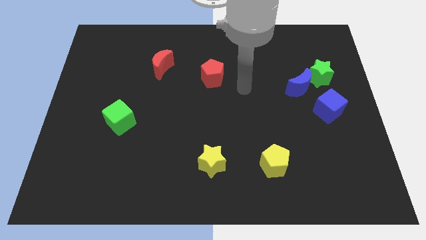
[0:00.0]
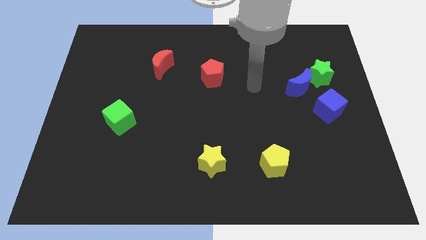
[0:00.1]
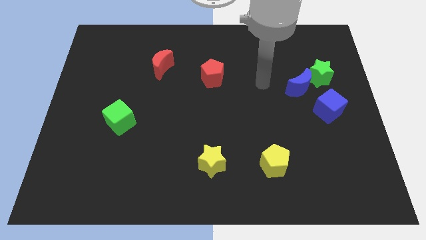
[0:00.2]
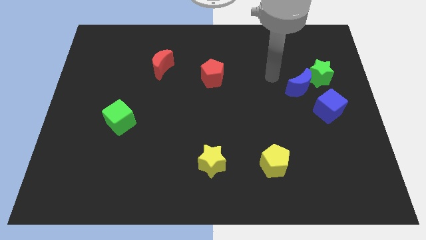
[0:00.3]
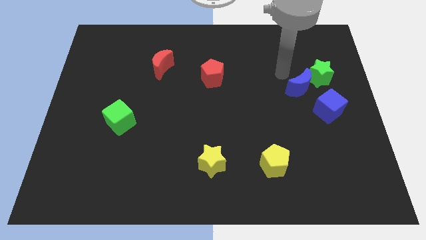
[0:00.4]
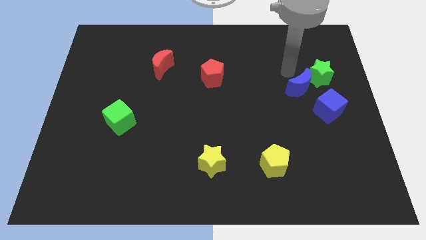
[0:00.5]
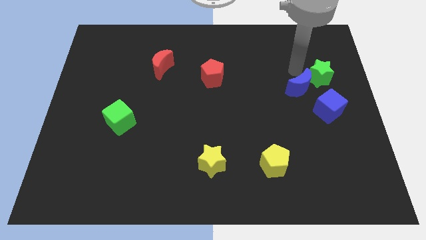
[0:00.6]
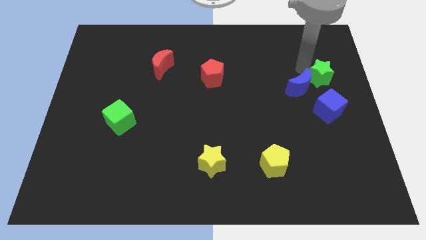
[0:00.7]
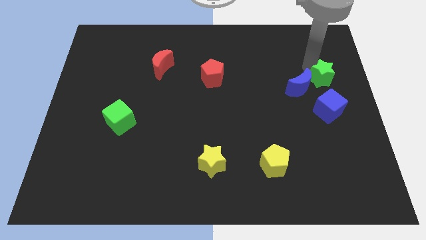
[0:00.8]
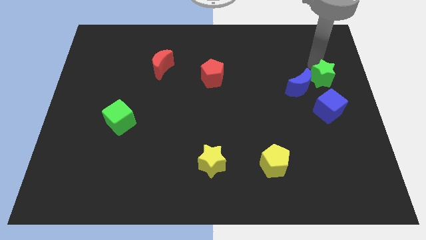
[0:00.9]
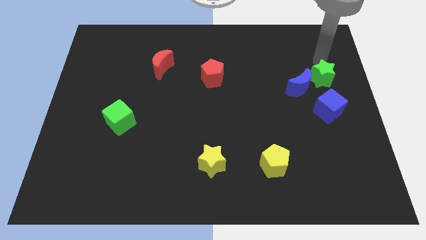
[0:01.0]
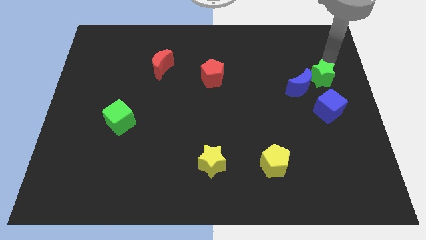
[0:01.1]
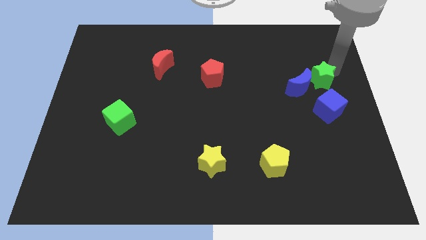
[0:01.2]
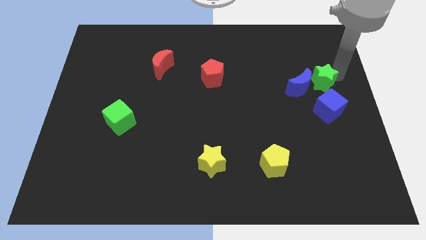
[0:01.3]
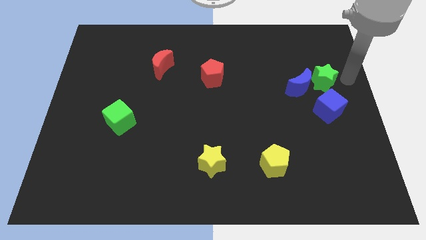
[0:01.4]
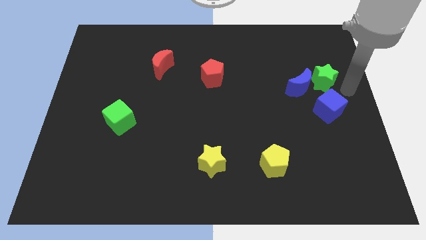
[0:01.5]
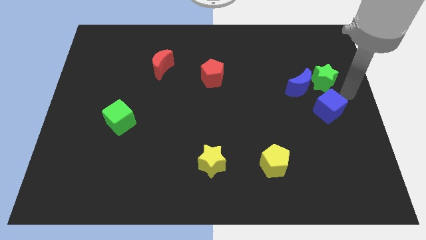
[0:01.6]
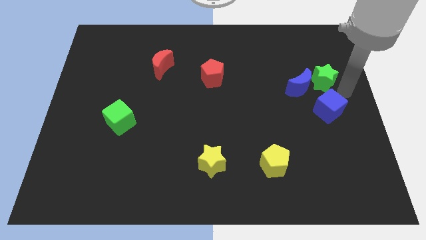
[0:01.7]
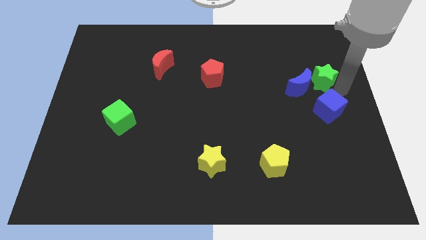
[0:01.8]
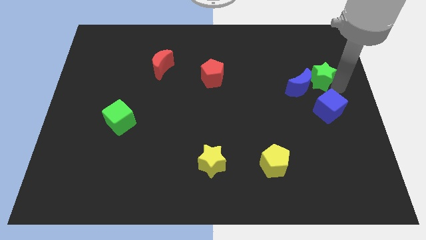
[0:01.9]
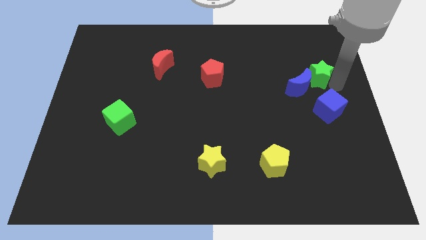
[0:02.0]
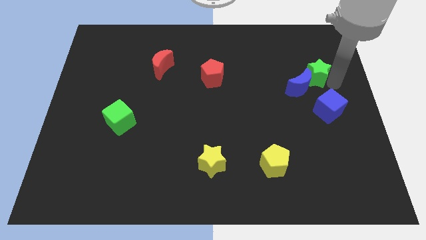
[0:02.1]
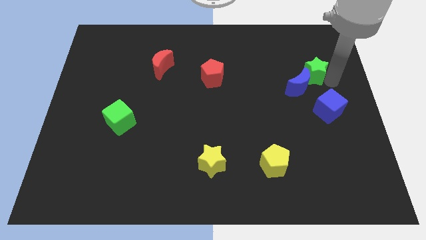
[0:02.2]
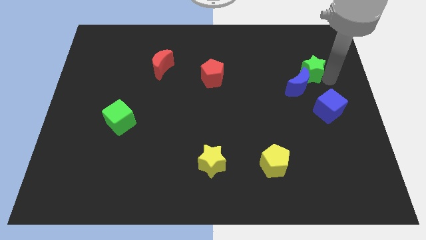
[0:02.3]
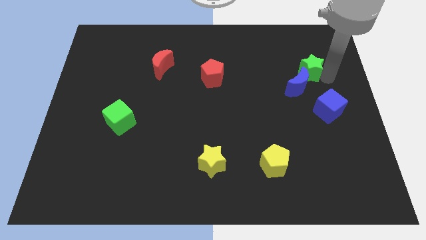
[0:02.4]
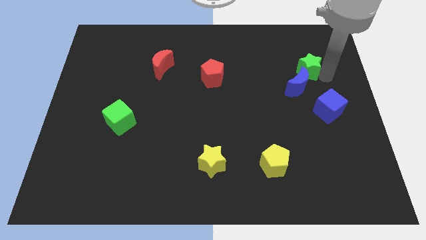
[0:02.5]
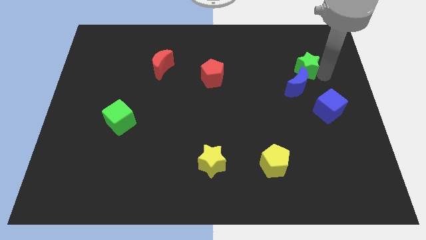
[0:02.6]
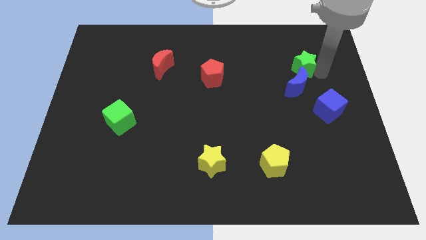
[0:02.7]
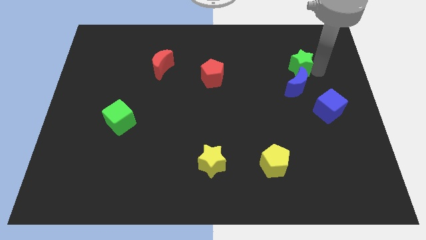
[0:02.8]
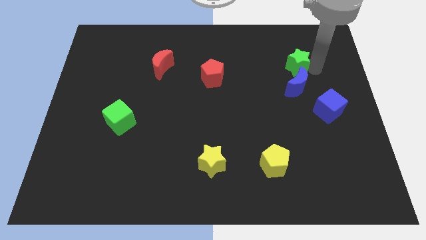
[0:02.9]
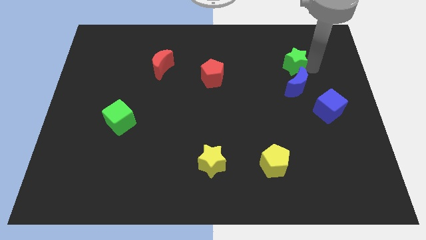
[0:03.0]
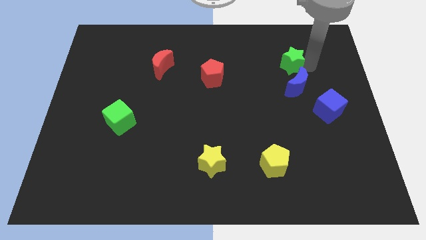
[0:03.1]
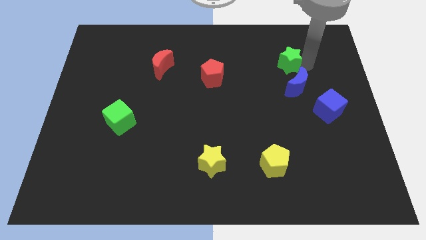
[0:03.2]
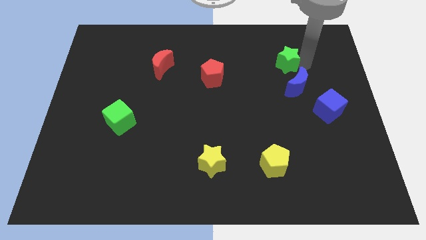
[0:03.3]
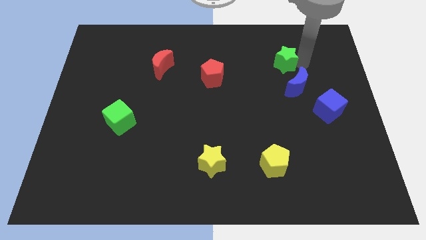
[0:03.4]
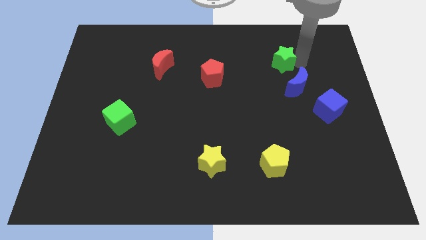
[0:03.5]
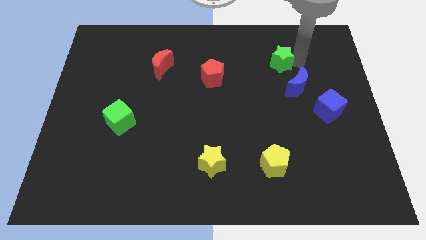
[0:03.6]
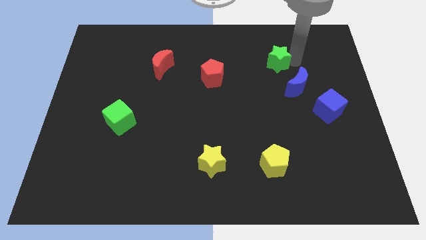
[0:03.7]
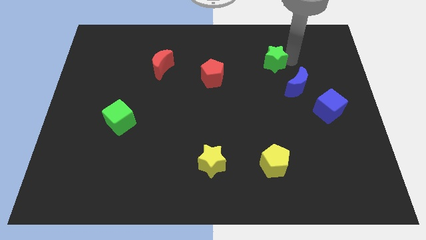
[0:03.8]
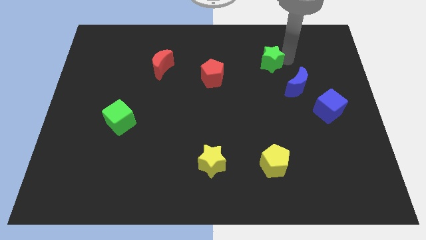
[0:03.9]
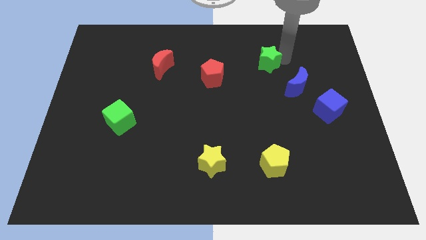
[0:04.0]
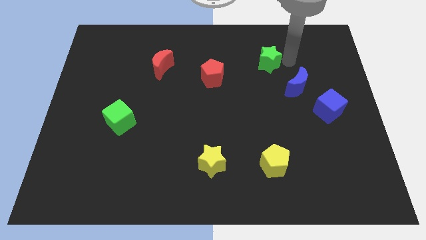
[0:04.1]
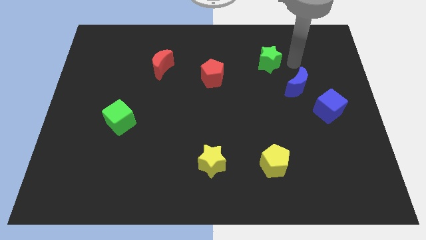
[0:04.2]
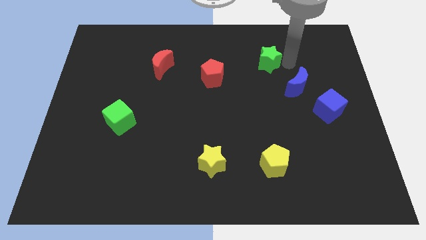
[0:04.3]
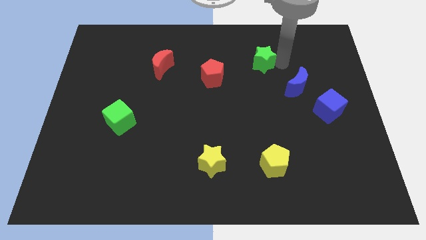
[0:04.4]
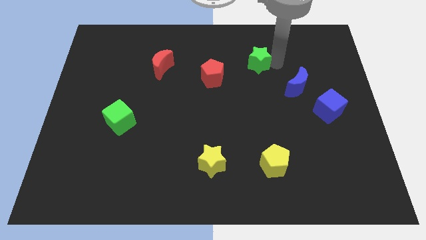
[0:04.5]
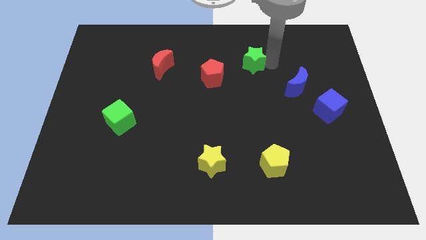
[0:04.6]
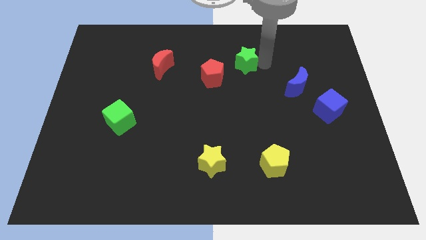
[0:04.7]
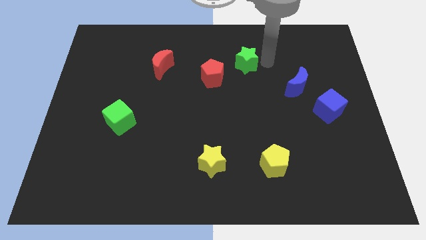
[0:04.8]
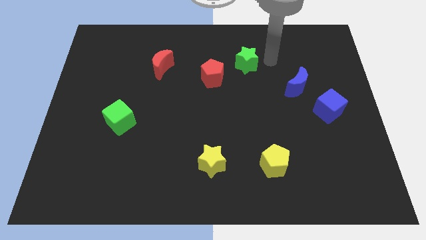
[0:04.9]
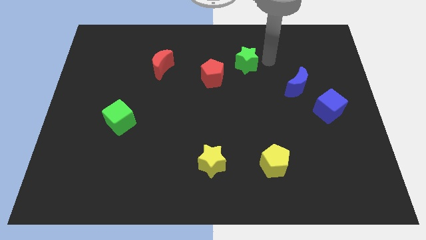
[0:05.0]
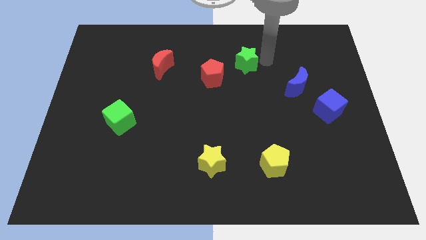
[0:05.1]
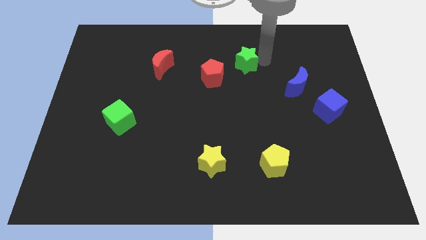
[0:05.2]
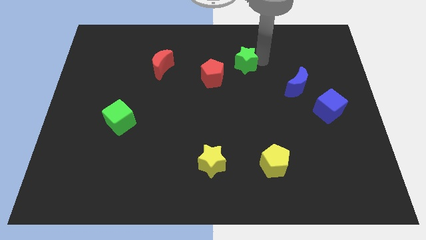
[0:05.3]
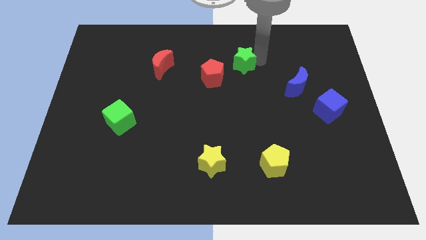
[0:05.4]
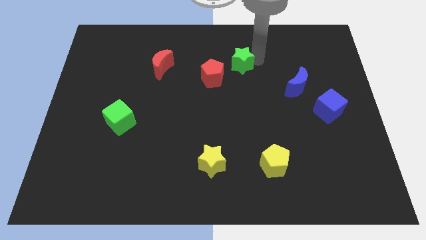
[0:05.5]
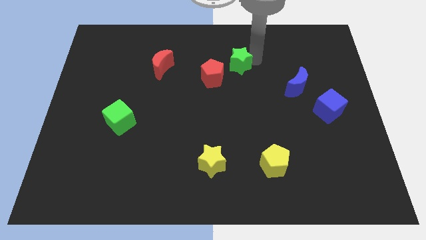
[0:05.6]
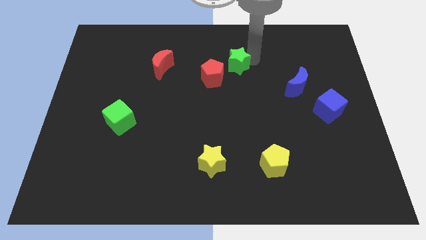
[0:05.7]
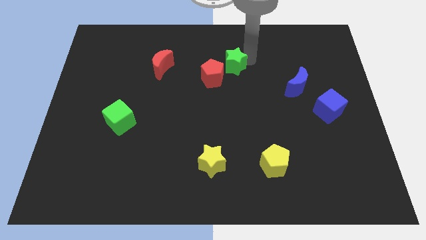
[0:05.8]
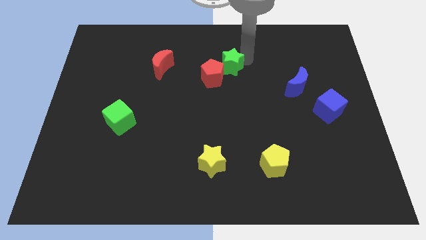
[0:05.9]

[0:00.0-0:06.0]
slide the green star towards the red pentagon

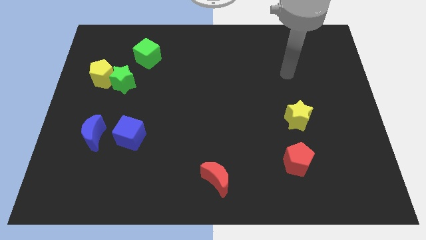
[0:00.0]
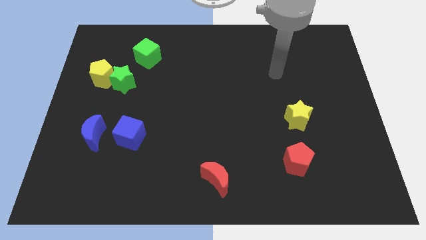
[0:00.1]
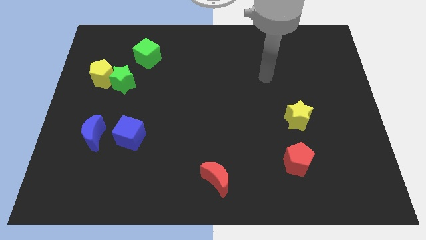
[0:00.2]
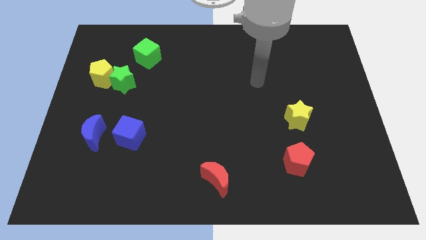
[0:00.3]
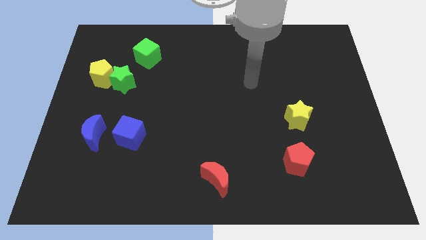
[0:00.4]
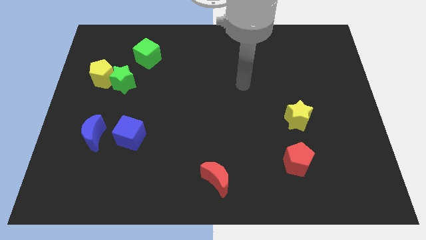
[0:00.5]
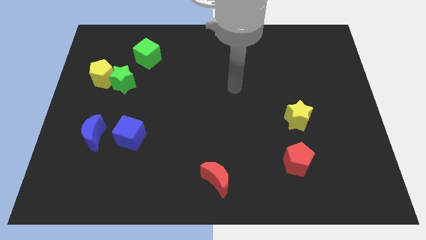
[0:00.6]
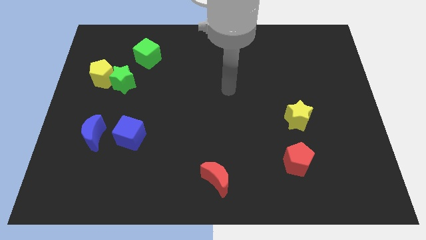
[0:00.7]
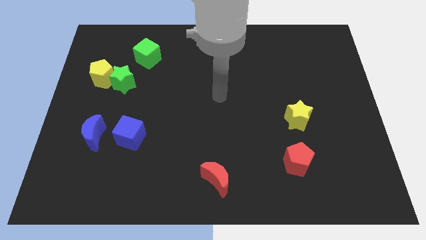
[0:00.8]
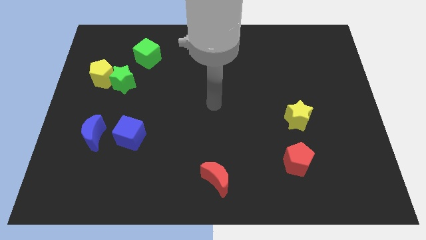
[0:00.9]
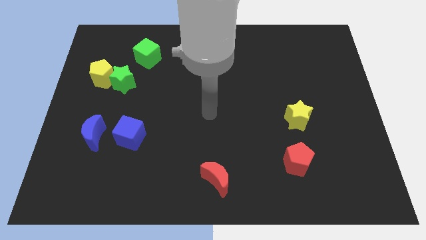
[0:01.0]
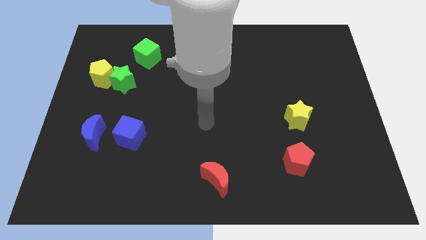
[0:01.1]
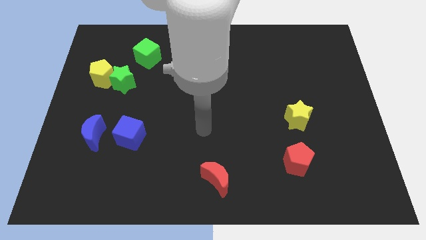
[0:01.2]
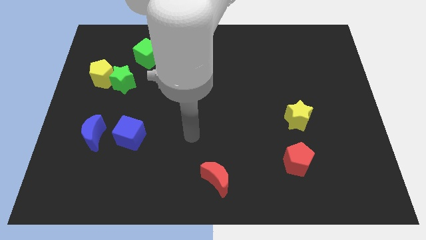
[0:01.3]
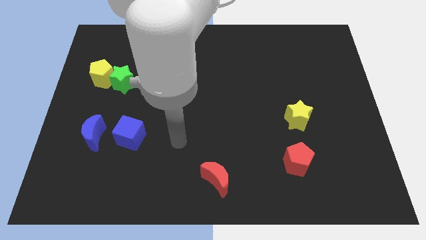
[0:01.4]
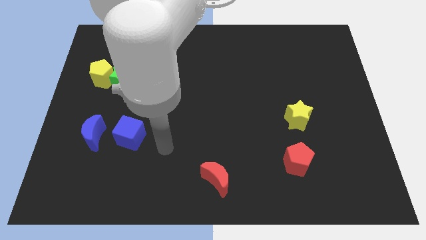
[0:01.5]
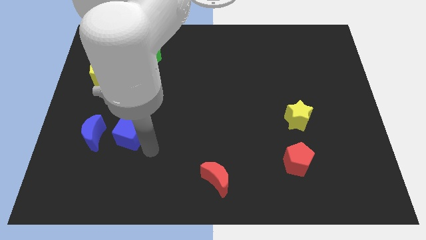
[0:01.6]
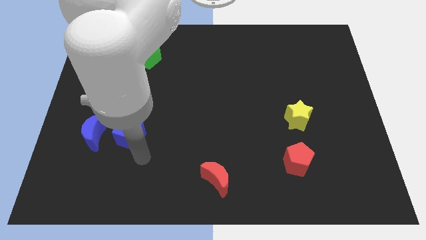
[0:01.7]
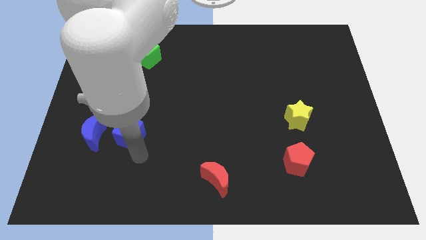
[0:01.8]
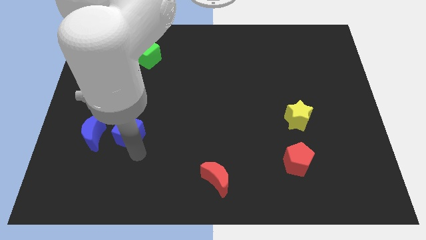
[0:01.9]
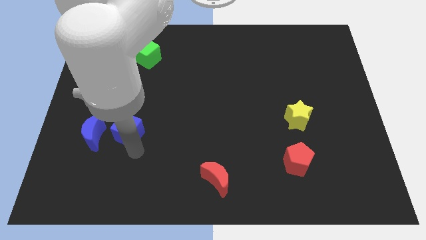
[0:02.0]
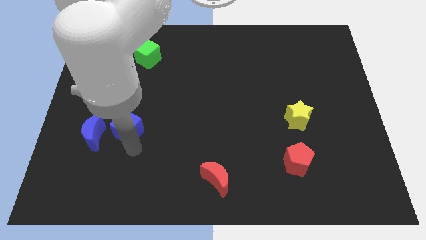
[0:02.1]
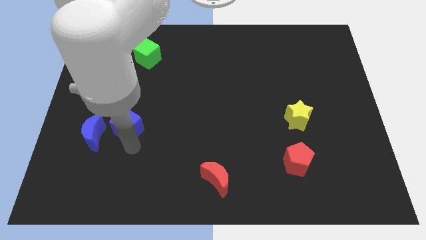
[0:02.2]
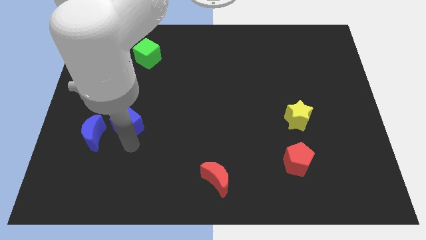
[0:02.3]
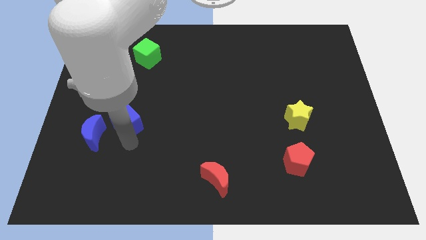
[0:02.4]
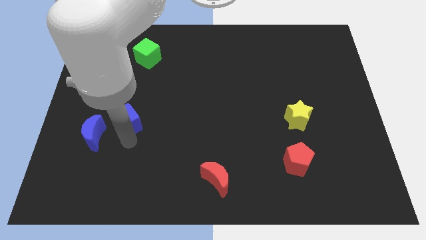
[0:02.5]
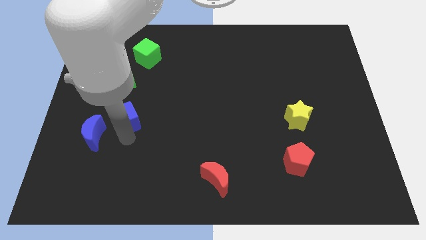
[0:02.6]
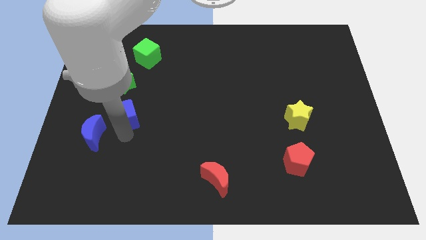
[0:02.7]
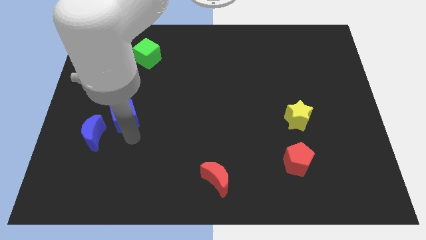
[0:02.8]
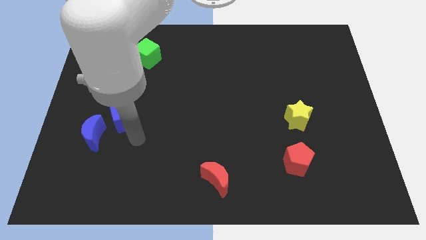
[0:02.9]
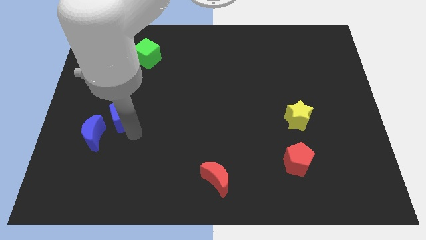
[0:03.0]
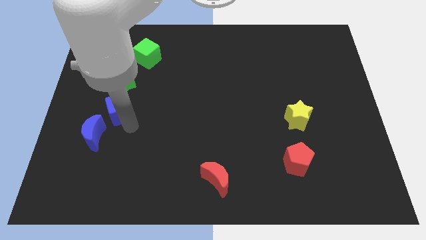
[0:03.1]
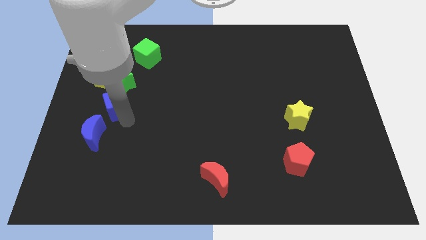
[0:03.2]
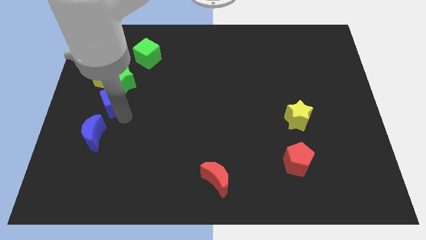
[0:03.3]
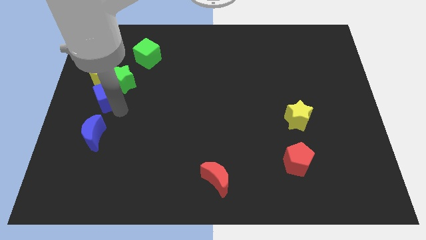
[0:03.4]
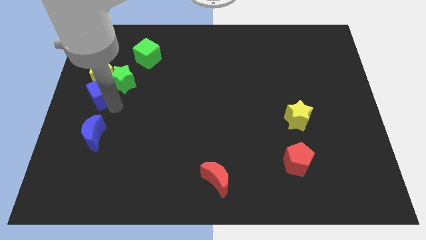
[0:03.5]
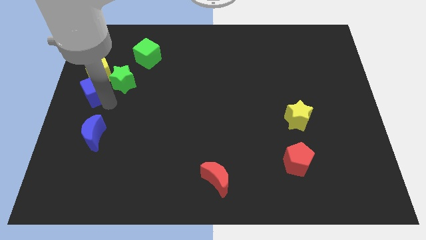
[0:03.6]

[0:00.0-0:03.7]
slide the blue cube to the yellow pentagon
